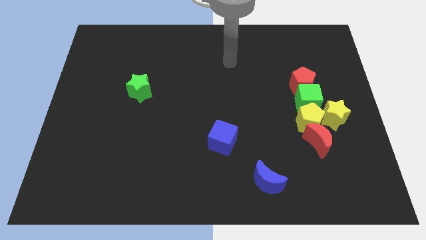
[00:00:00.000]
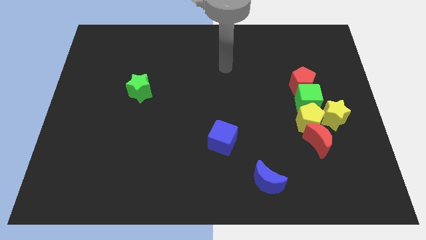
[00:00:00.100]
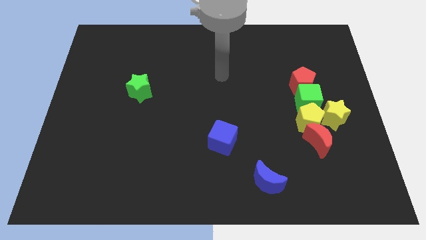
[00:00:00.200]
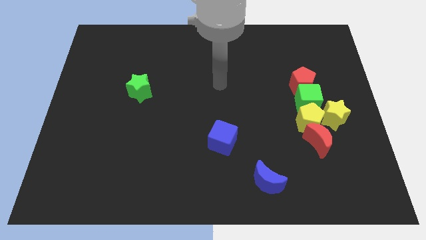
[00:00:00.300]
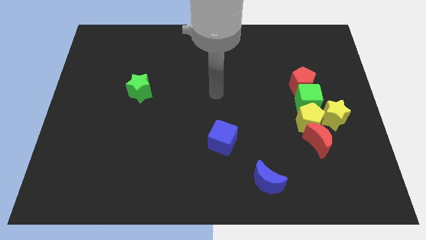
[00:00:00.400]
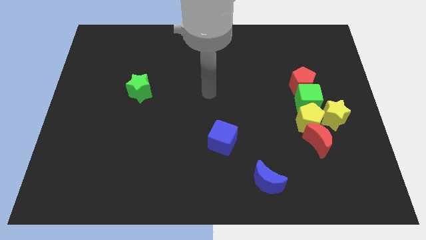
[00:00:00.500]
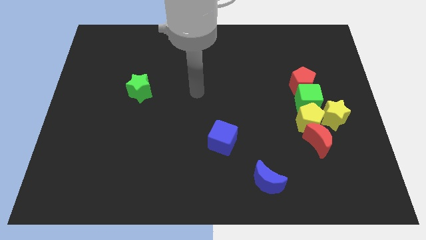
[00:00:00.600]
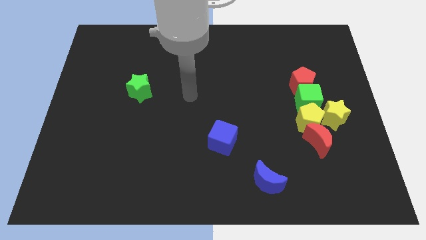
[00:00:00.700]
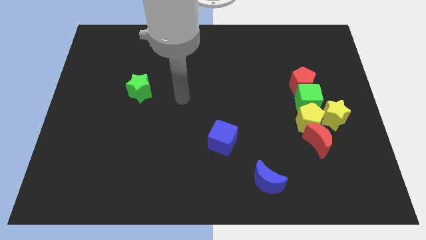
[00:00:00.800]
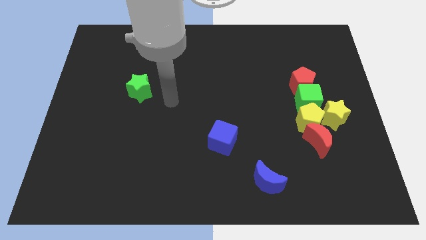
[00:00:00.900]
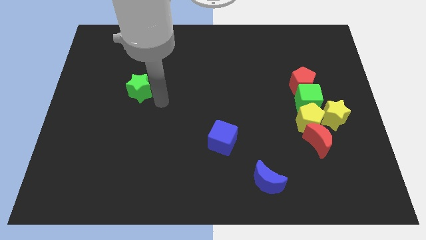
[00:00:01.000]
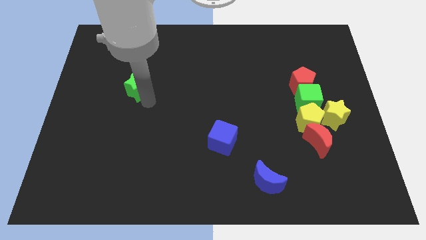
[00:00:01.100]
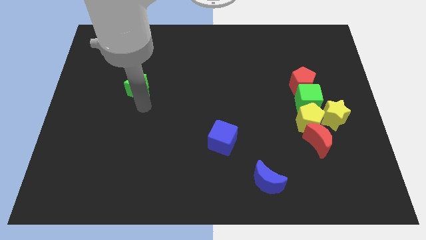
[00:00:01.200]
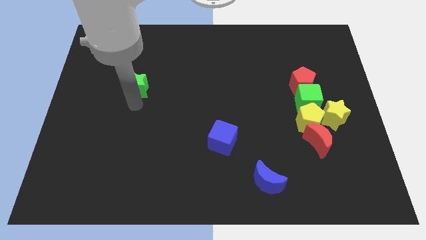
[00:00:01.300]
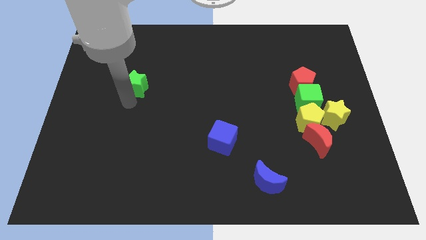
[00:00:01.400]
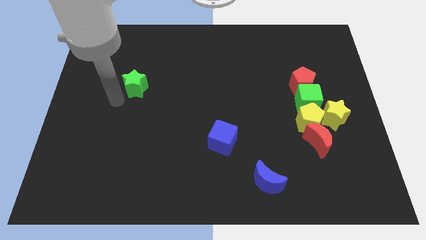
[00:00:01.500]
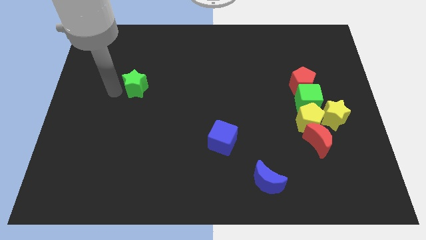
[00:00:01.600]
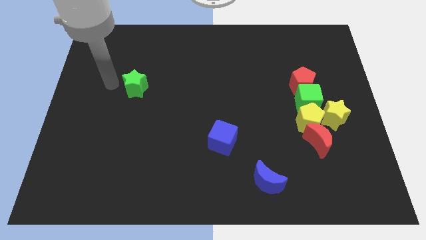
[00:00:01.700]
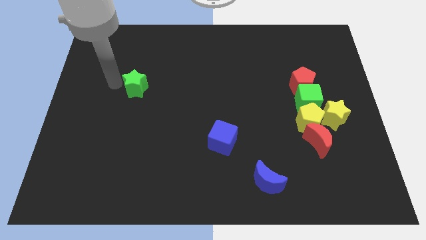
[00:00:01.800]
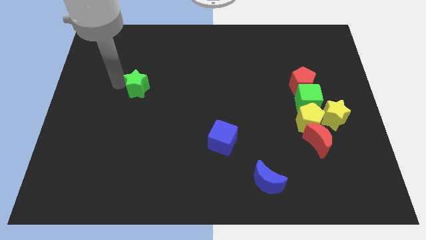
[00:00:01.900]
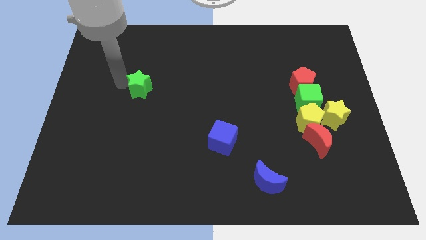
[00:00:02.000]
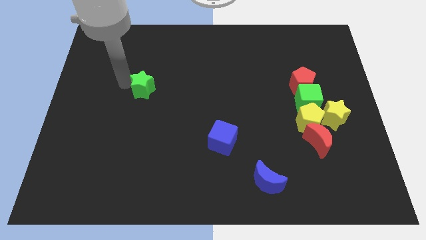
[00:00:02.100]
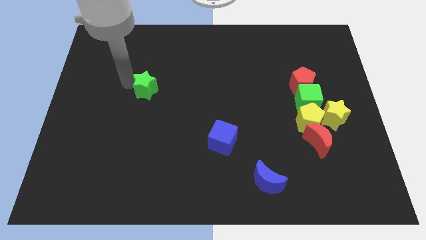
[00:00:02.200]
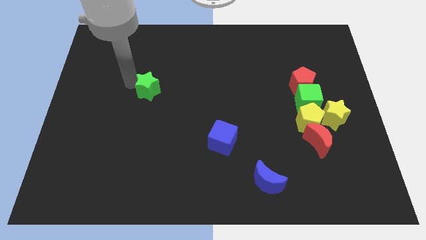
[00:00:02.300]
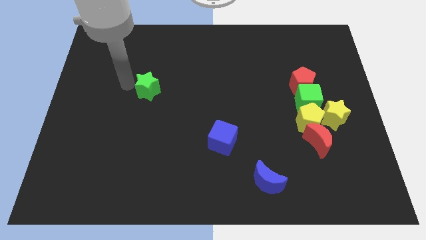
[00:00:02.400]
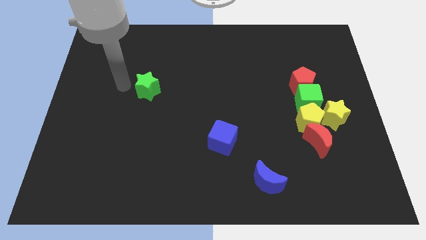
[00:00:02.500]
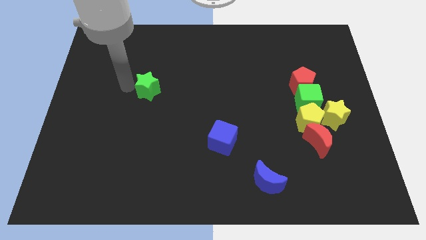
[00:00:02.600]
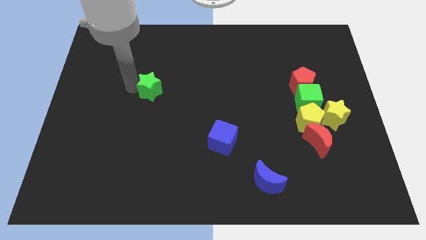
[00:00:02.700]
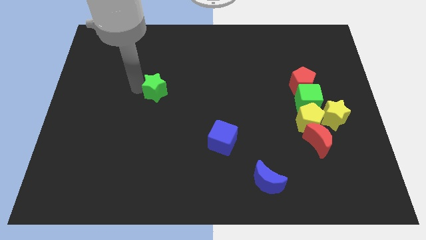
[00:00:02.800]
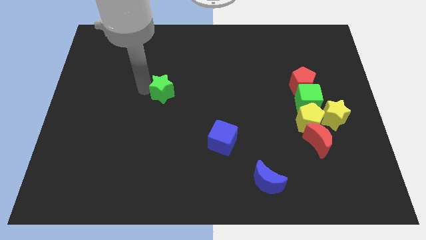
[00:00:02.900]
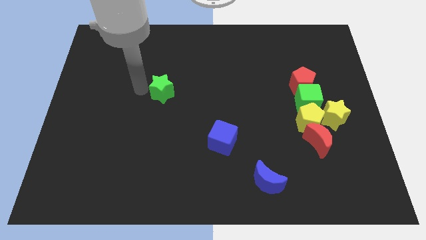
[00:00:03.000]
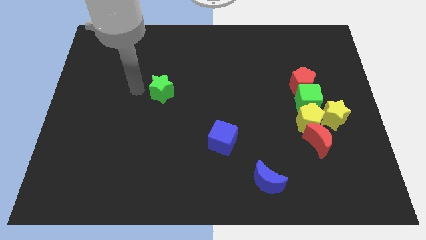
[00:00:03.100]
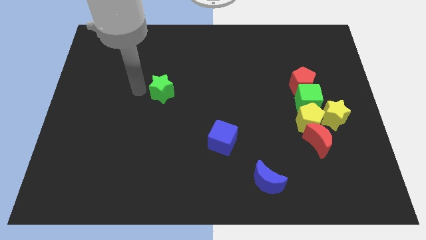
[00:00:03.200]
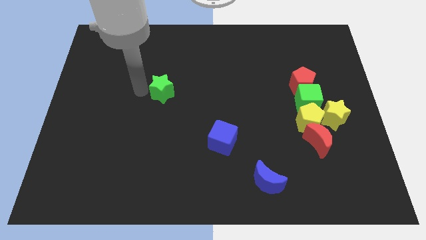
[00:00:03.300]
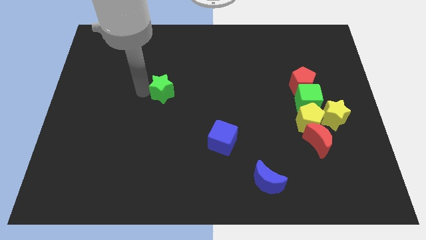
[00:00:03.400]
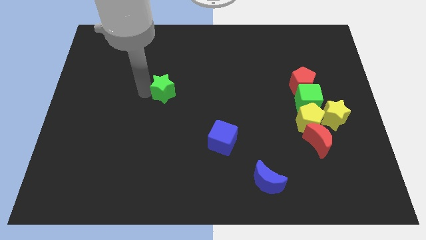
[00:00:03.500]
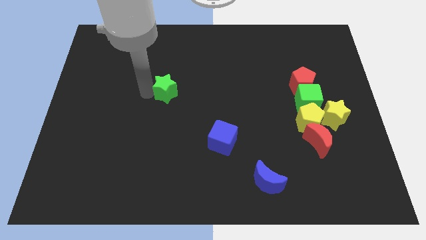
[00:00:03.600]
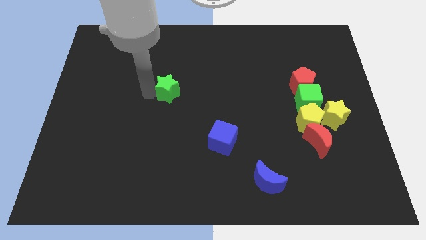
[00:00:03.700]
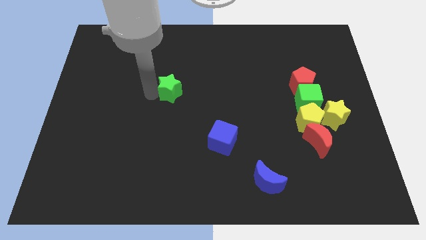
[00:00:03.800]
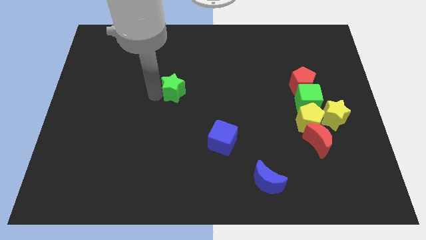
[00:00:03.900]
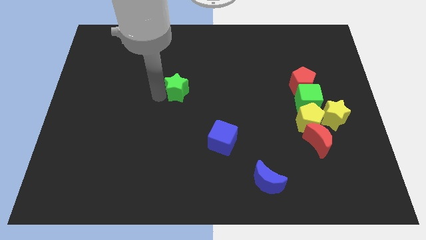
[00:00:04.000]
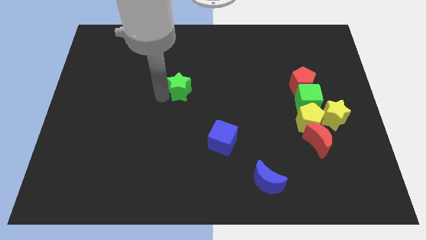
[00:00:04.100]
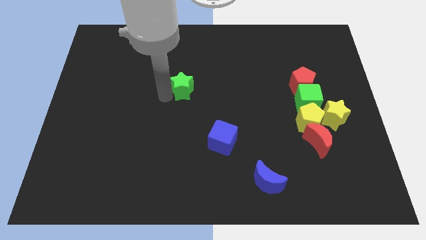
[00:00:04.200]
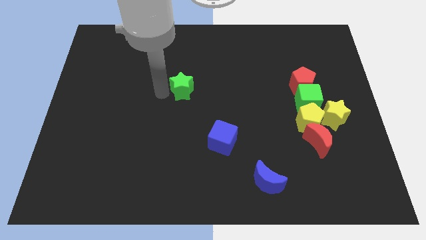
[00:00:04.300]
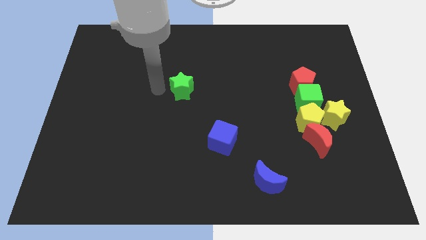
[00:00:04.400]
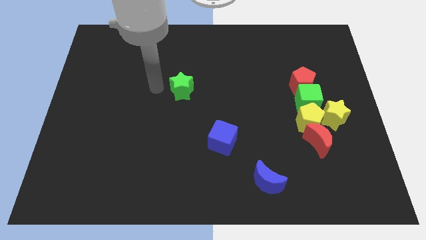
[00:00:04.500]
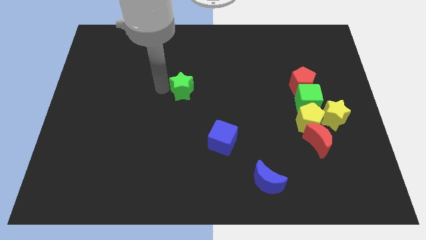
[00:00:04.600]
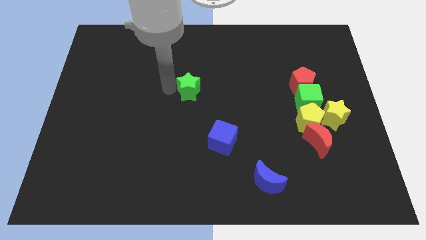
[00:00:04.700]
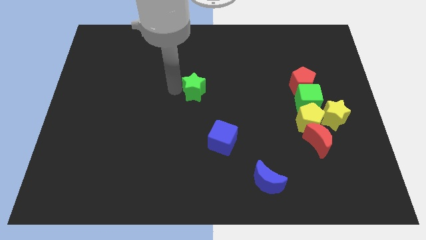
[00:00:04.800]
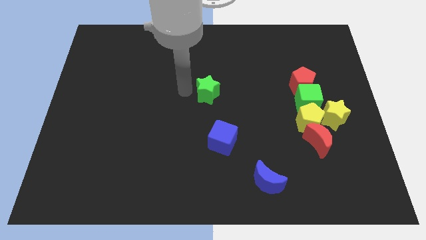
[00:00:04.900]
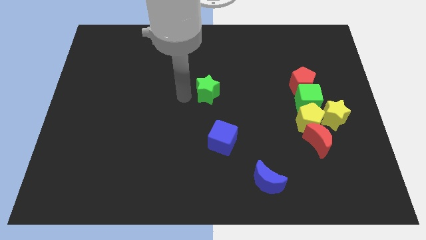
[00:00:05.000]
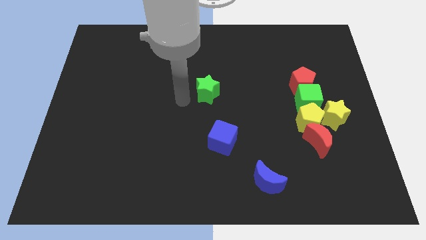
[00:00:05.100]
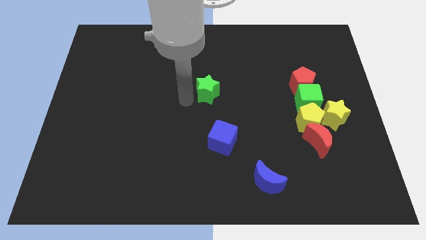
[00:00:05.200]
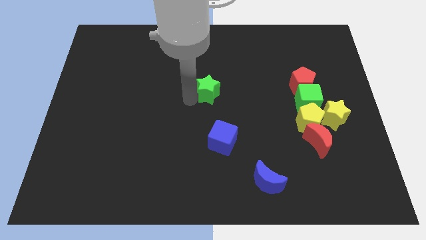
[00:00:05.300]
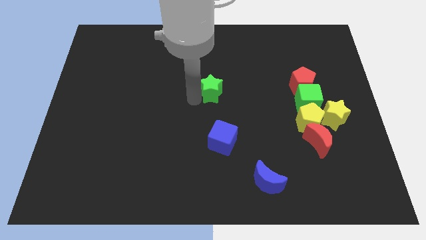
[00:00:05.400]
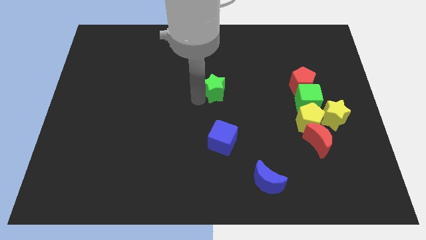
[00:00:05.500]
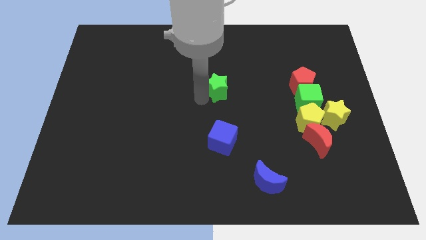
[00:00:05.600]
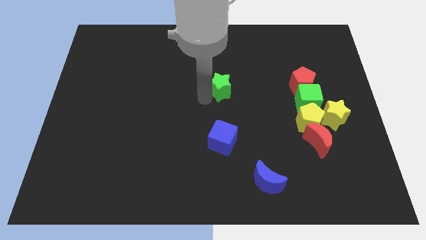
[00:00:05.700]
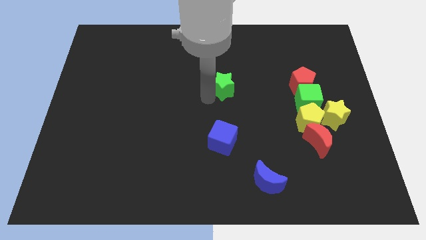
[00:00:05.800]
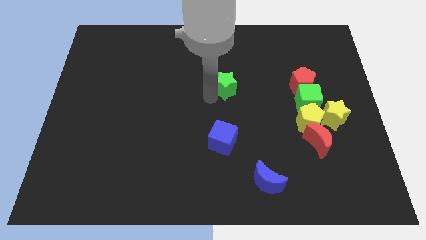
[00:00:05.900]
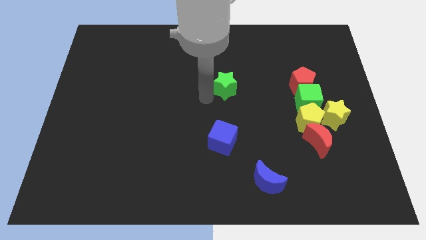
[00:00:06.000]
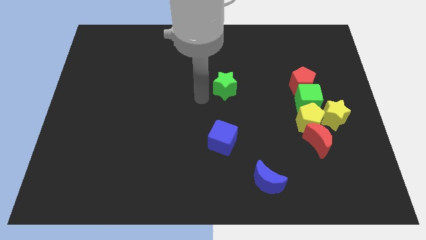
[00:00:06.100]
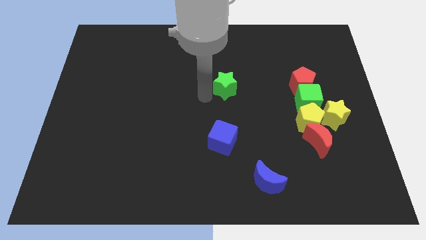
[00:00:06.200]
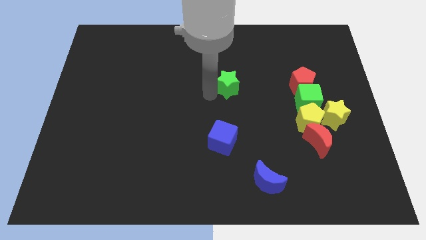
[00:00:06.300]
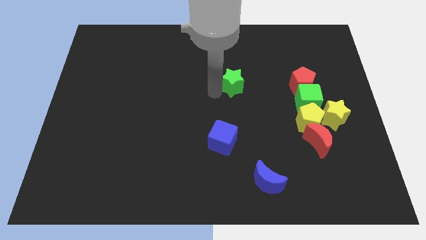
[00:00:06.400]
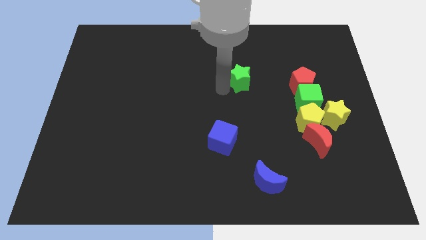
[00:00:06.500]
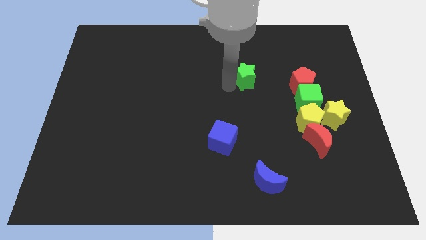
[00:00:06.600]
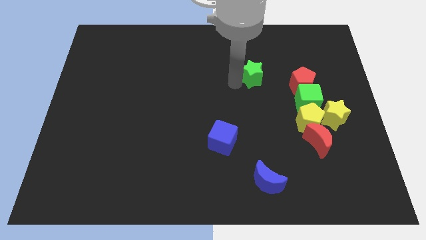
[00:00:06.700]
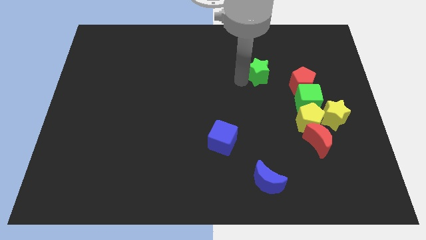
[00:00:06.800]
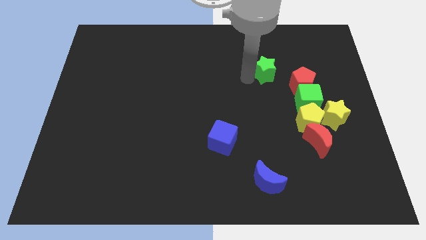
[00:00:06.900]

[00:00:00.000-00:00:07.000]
push the green star to the top left side of the red pentagon

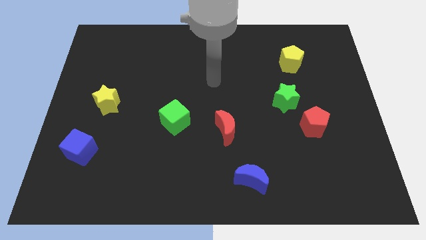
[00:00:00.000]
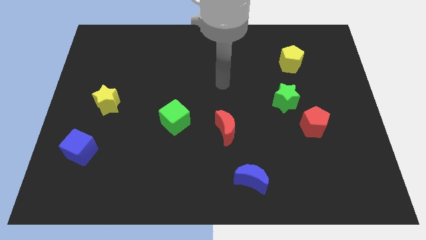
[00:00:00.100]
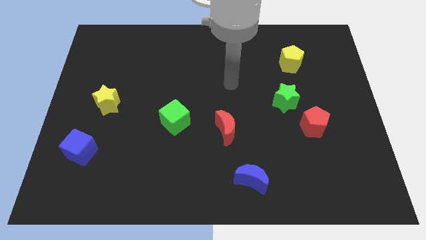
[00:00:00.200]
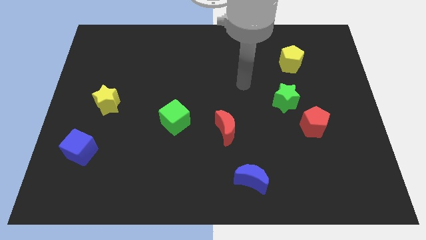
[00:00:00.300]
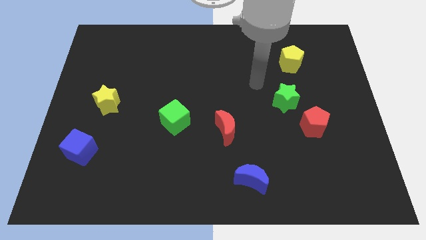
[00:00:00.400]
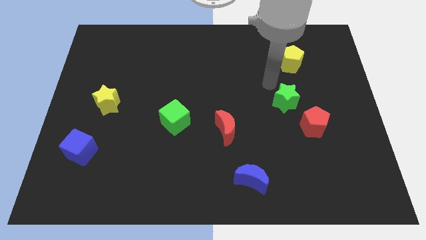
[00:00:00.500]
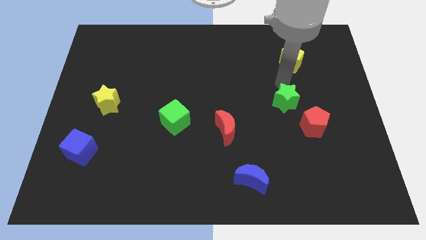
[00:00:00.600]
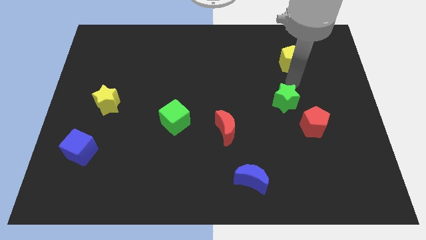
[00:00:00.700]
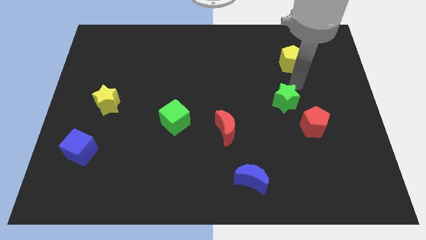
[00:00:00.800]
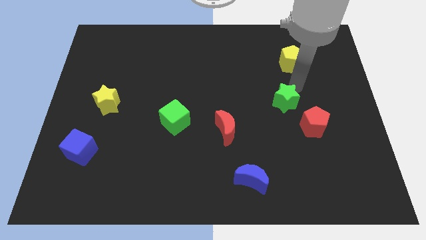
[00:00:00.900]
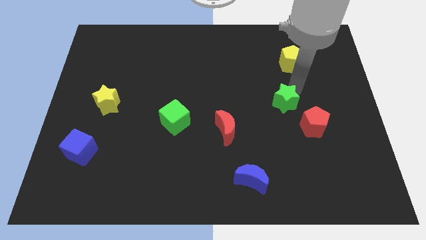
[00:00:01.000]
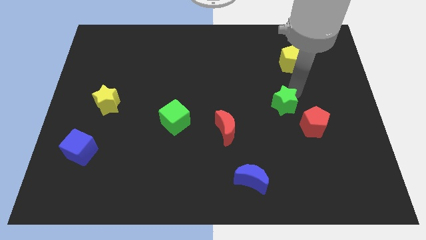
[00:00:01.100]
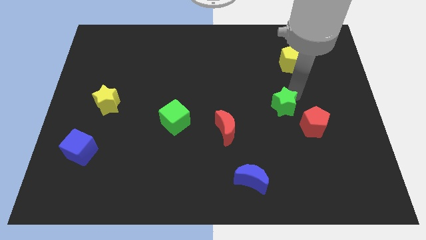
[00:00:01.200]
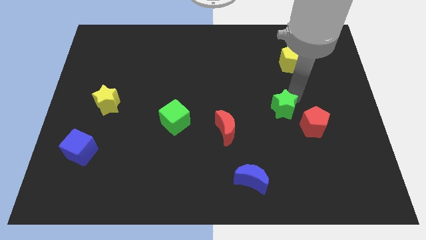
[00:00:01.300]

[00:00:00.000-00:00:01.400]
move the green star just left of the red pentagon
